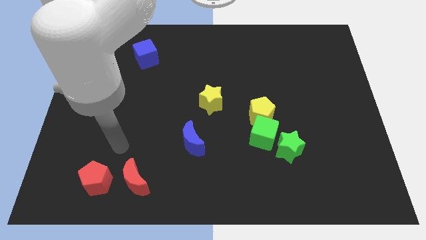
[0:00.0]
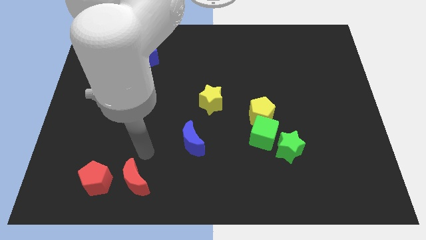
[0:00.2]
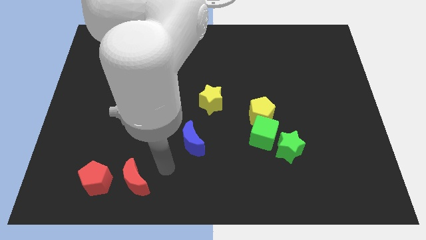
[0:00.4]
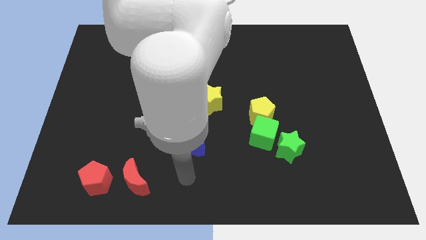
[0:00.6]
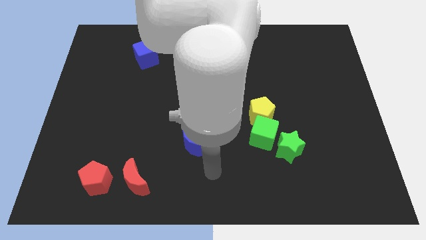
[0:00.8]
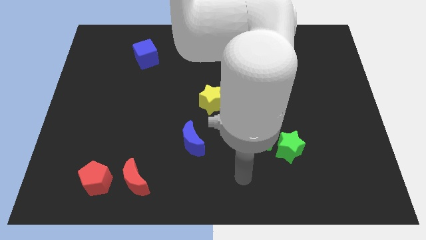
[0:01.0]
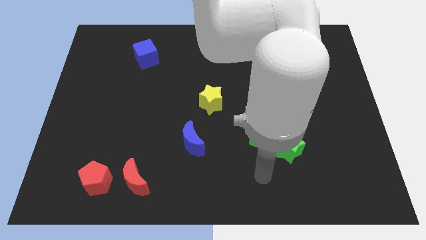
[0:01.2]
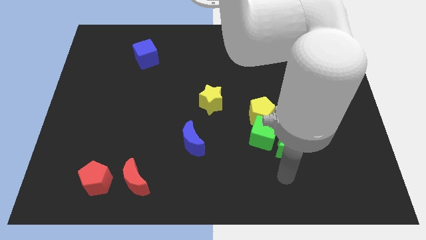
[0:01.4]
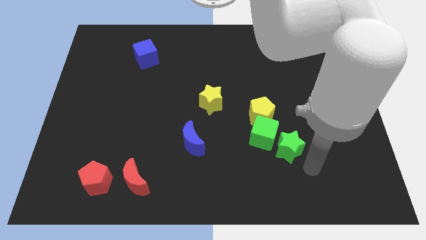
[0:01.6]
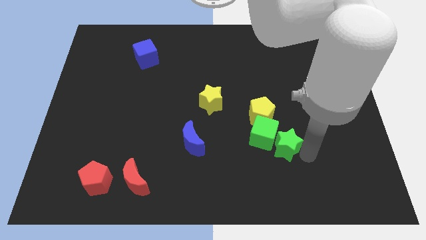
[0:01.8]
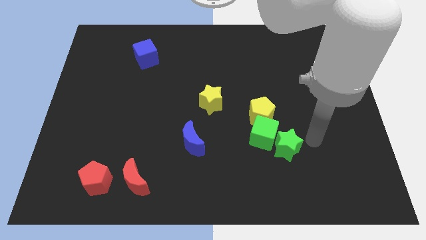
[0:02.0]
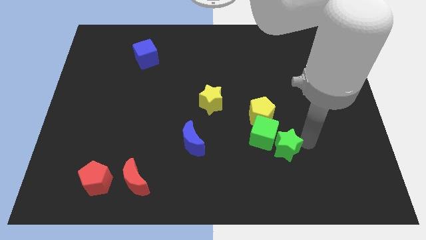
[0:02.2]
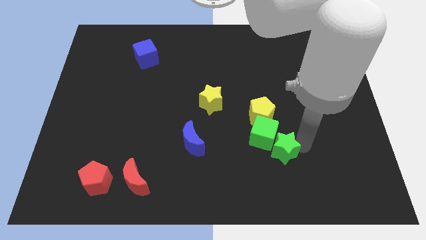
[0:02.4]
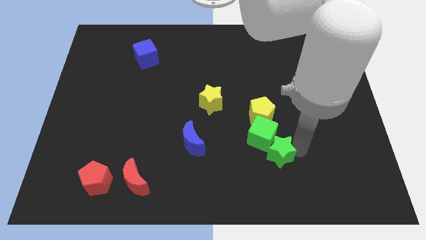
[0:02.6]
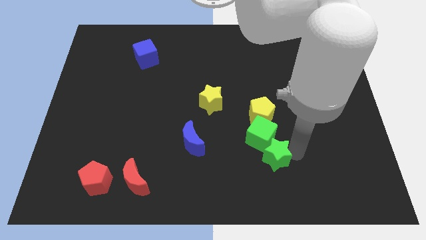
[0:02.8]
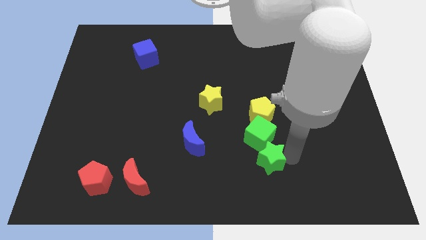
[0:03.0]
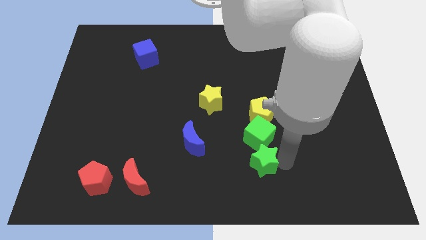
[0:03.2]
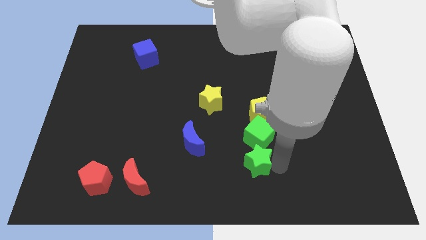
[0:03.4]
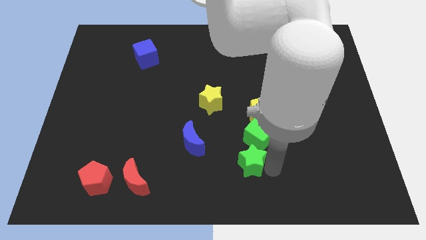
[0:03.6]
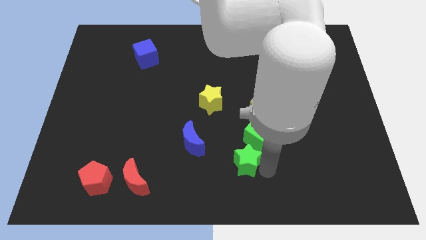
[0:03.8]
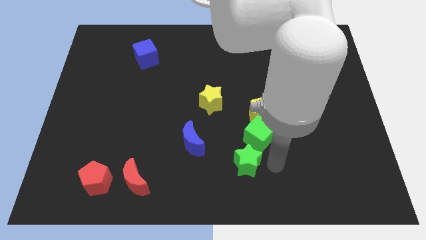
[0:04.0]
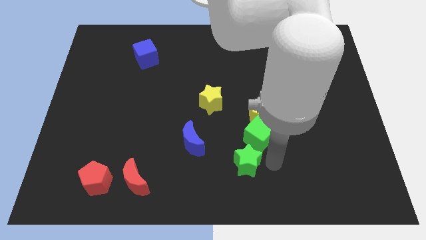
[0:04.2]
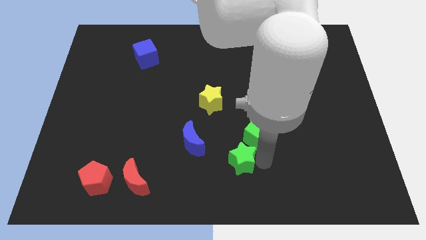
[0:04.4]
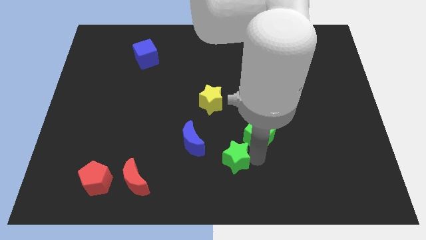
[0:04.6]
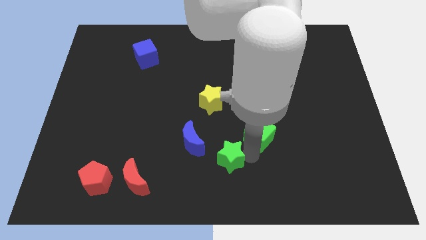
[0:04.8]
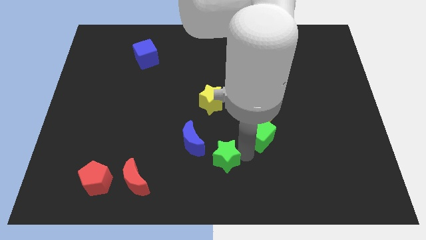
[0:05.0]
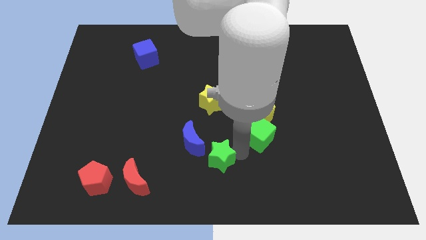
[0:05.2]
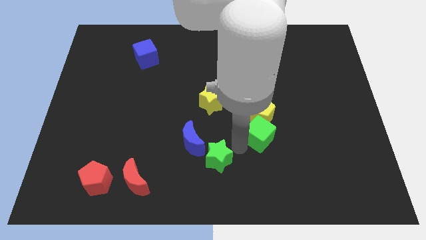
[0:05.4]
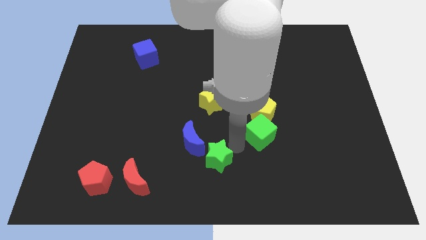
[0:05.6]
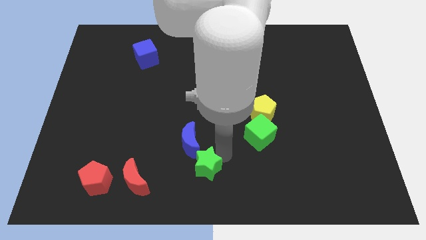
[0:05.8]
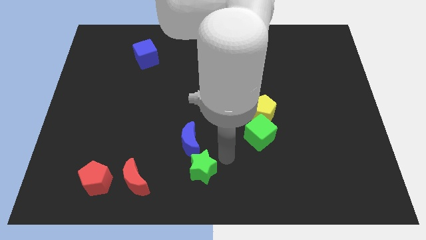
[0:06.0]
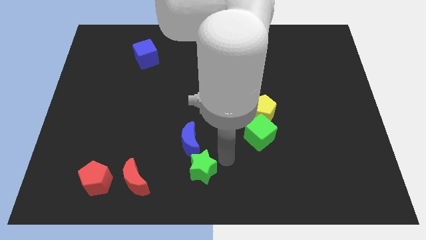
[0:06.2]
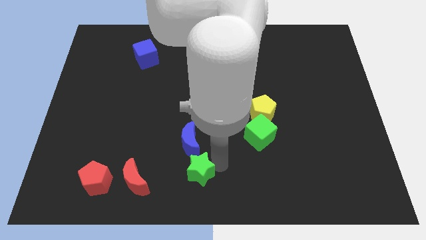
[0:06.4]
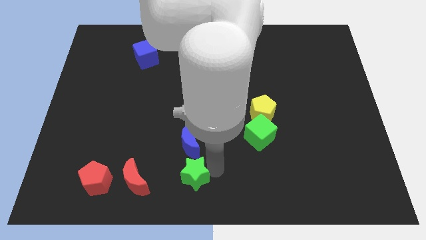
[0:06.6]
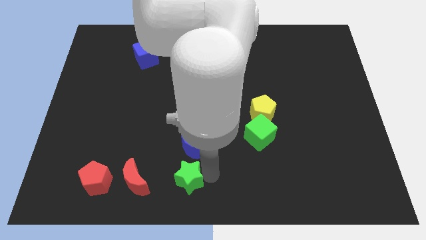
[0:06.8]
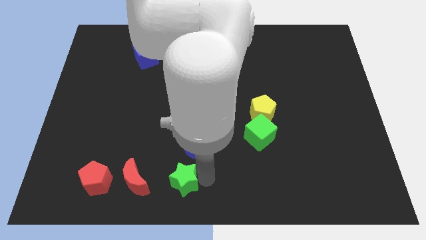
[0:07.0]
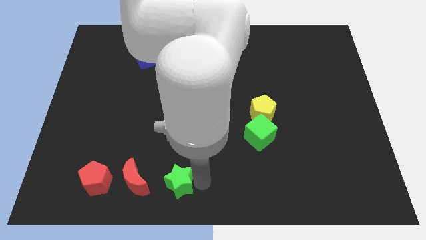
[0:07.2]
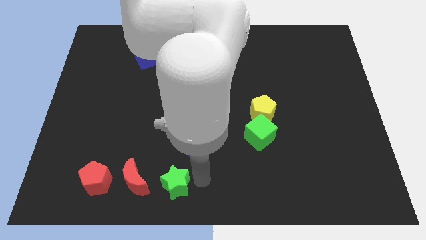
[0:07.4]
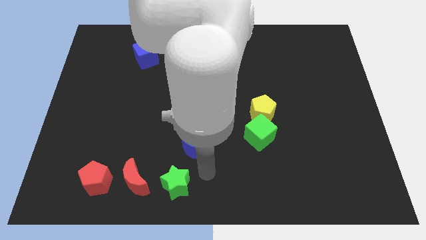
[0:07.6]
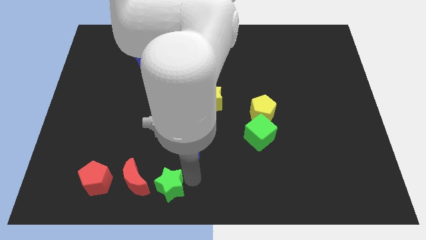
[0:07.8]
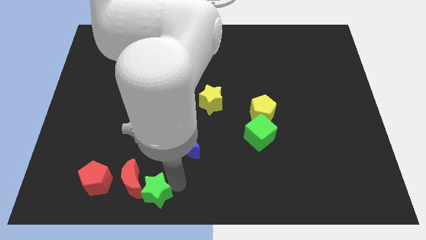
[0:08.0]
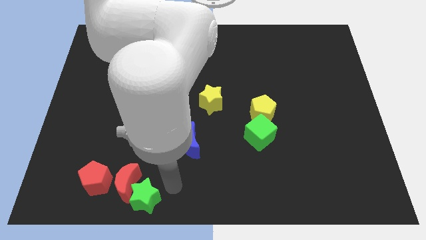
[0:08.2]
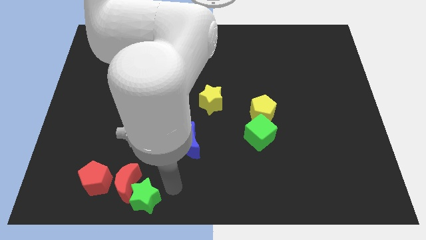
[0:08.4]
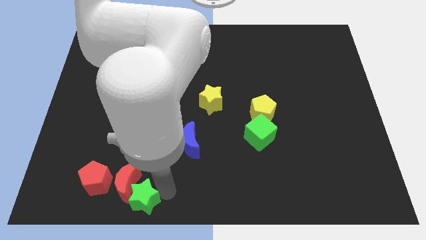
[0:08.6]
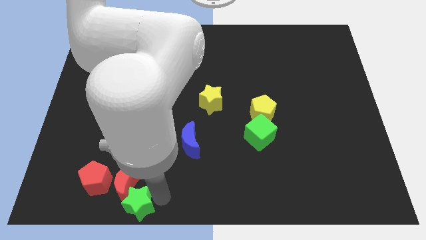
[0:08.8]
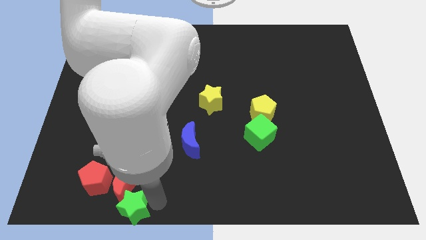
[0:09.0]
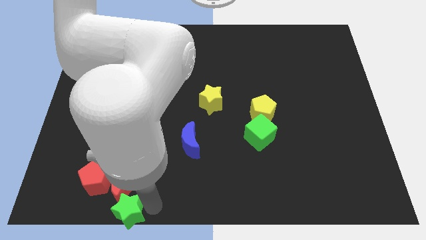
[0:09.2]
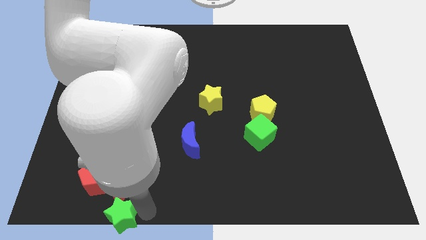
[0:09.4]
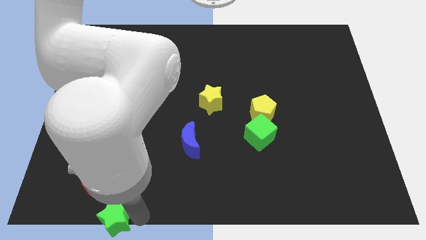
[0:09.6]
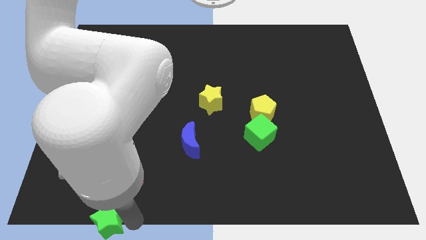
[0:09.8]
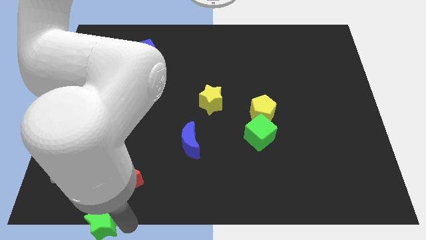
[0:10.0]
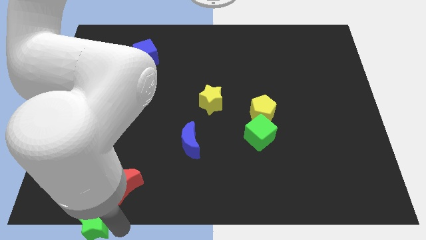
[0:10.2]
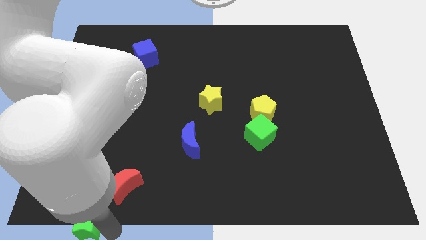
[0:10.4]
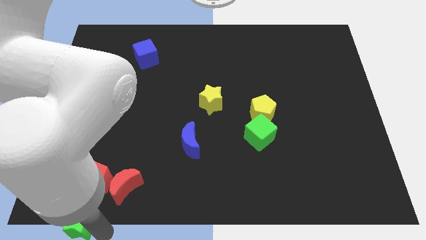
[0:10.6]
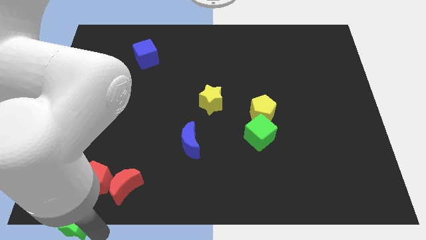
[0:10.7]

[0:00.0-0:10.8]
put the green star to the bottom left of the board

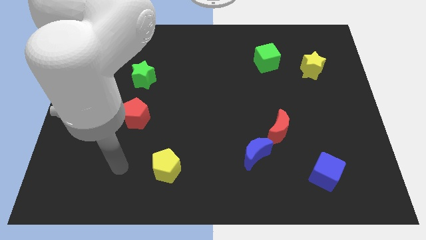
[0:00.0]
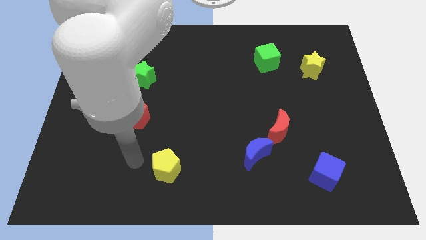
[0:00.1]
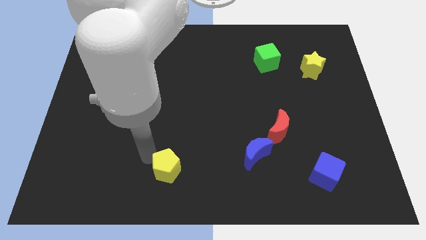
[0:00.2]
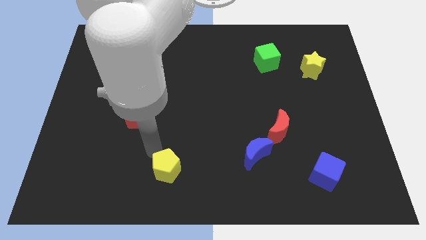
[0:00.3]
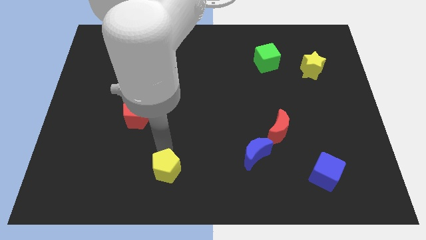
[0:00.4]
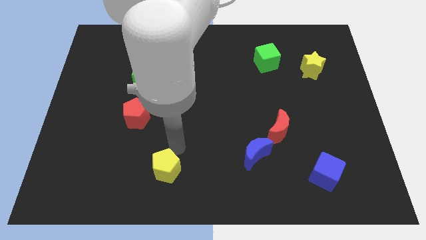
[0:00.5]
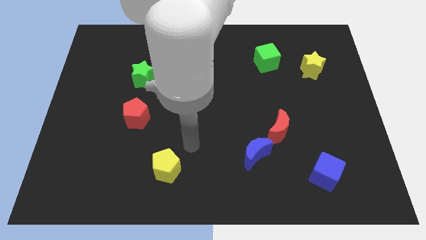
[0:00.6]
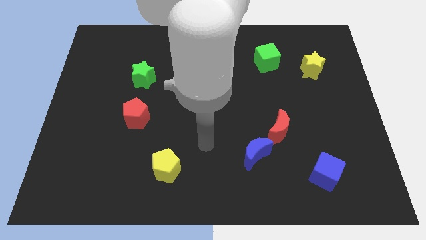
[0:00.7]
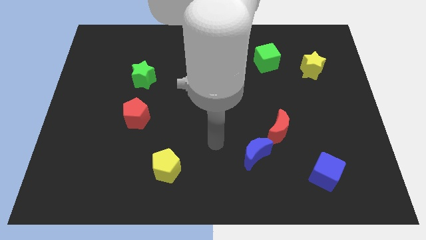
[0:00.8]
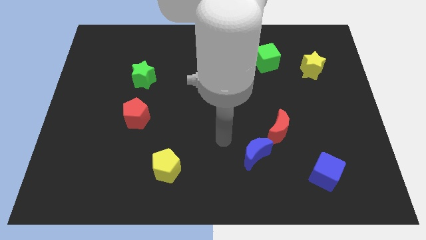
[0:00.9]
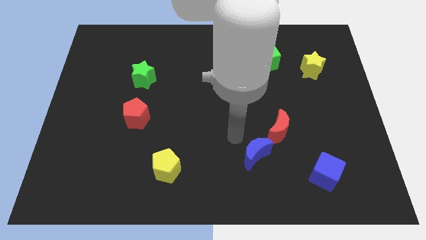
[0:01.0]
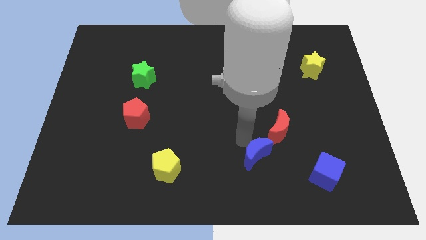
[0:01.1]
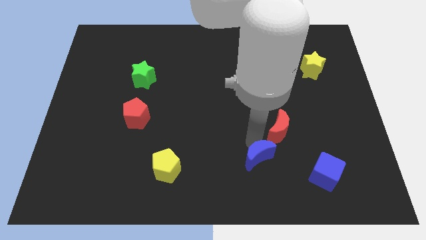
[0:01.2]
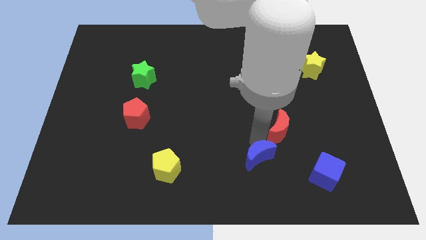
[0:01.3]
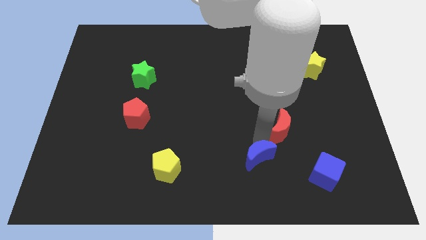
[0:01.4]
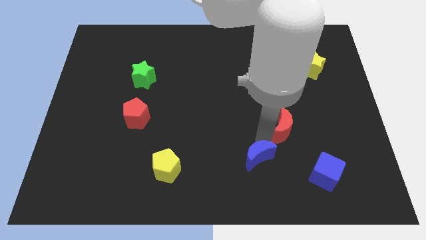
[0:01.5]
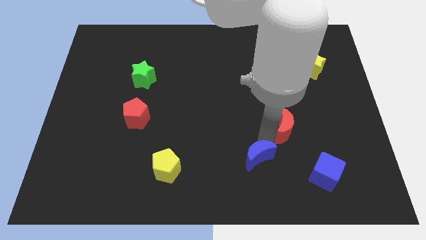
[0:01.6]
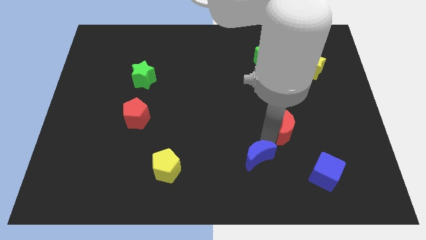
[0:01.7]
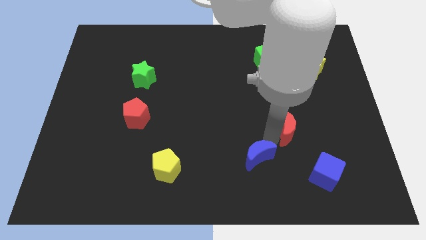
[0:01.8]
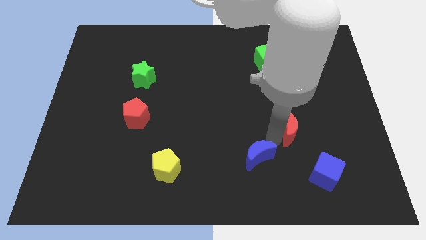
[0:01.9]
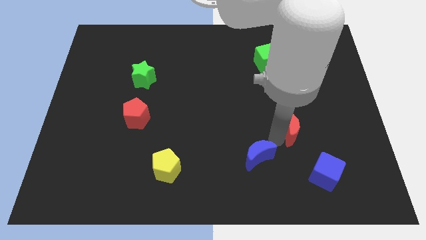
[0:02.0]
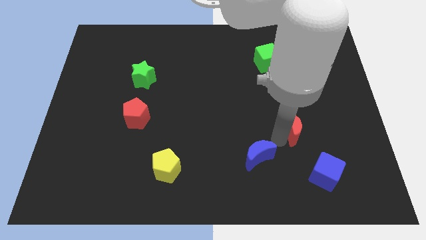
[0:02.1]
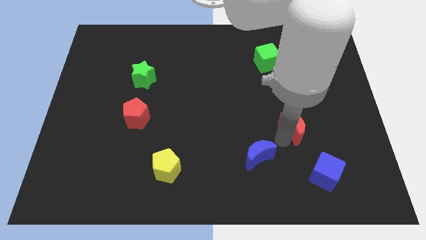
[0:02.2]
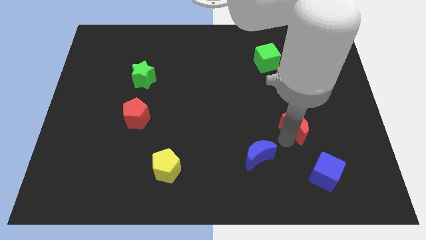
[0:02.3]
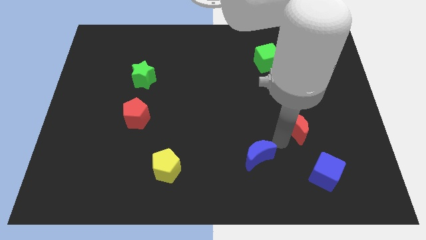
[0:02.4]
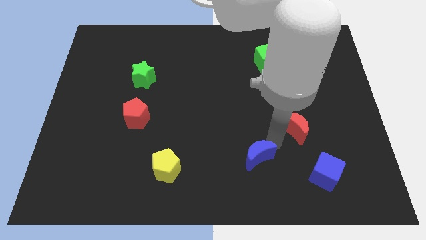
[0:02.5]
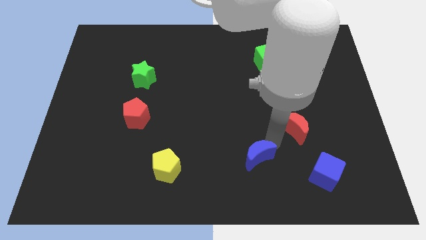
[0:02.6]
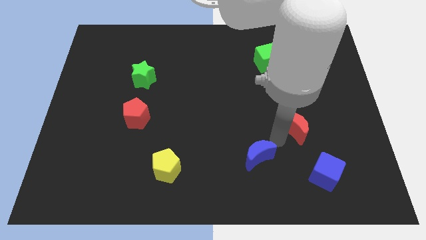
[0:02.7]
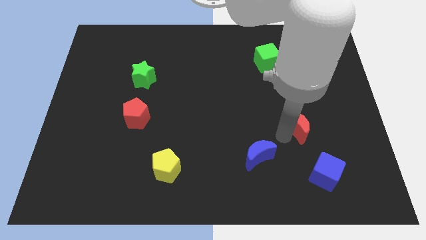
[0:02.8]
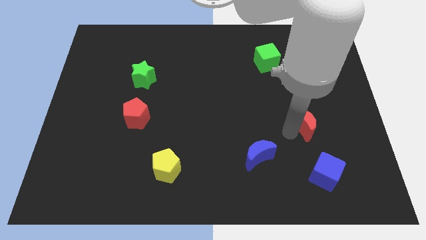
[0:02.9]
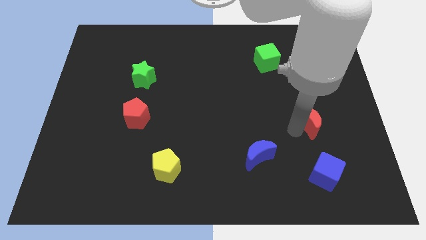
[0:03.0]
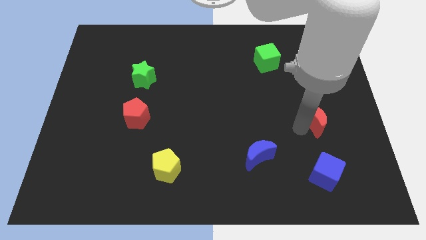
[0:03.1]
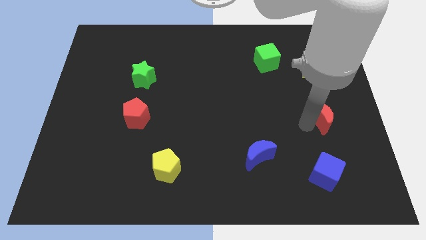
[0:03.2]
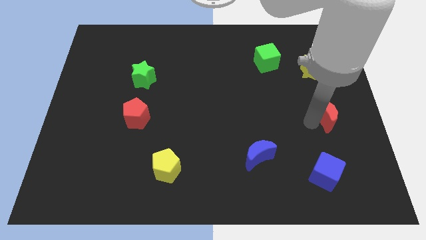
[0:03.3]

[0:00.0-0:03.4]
push the red moon to the right side of the board
